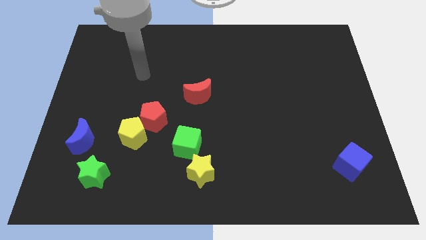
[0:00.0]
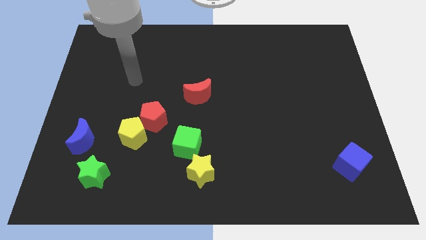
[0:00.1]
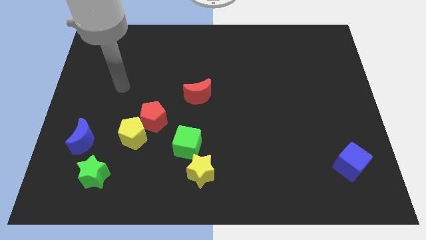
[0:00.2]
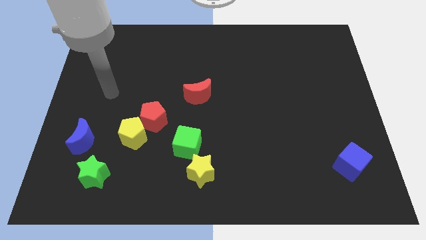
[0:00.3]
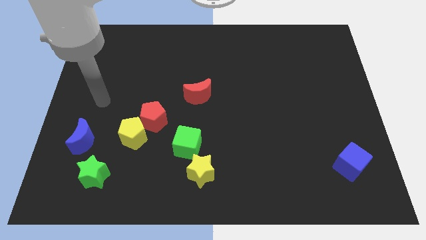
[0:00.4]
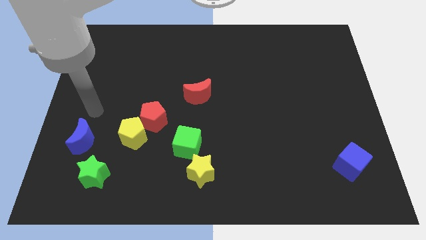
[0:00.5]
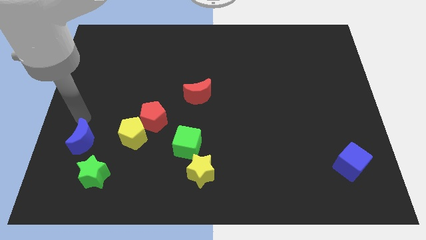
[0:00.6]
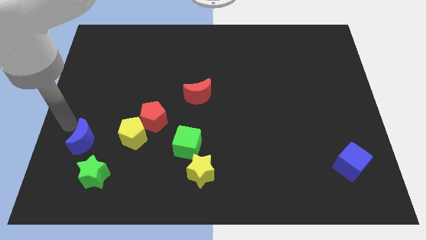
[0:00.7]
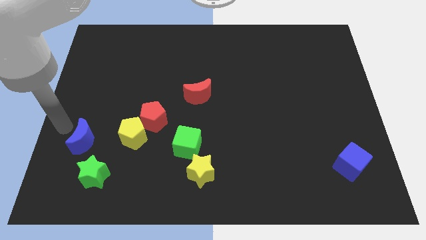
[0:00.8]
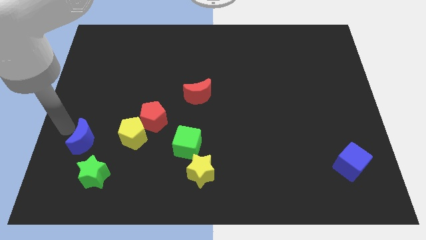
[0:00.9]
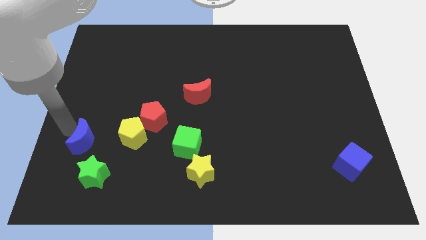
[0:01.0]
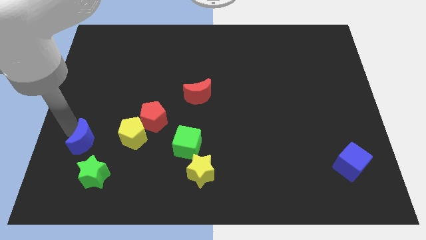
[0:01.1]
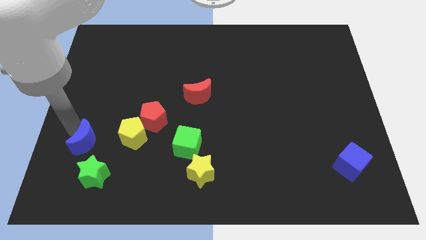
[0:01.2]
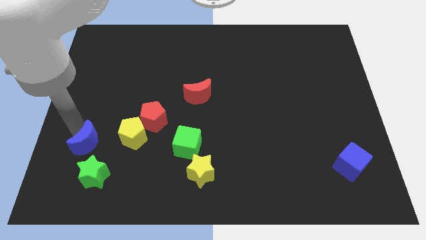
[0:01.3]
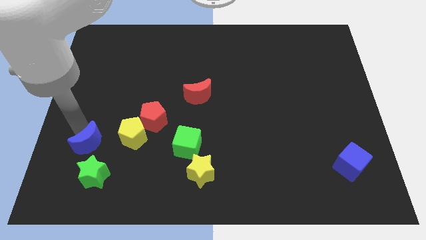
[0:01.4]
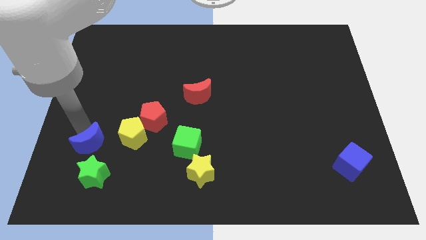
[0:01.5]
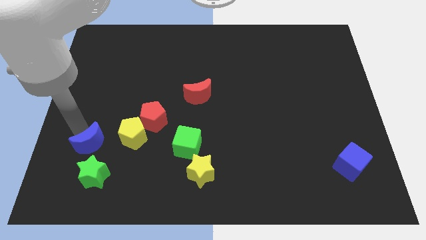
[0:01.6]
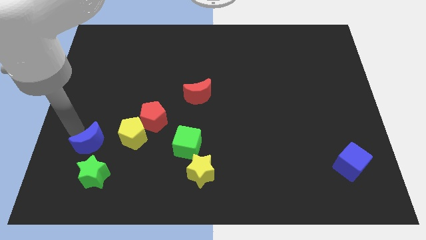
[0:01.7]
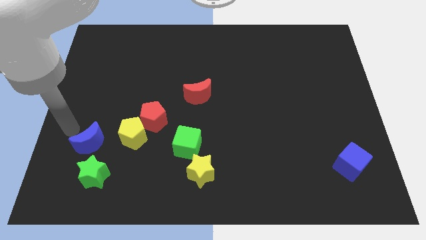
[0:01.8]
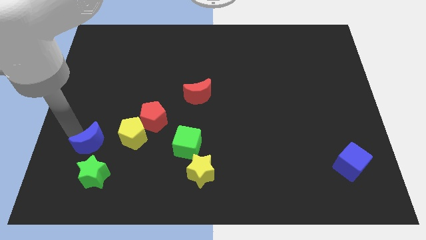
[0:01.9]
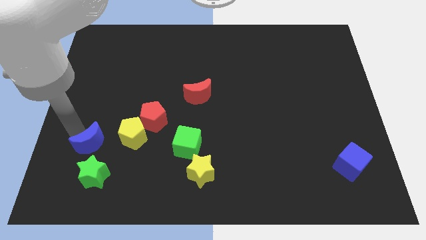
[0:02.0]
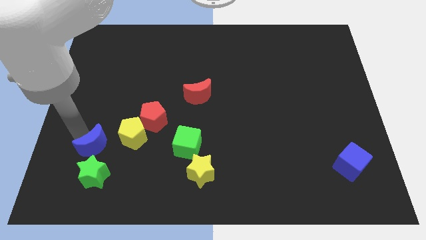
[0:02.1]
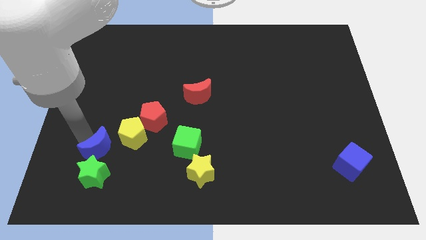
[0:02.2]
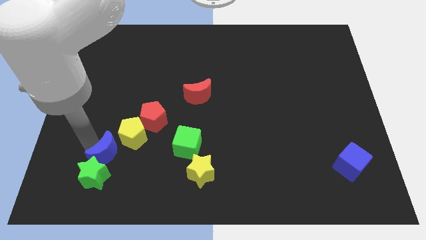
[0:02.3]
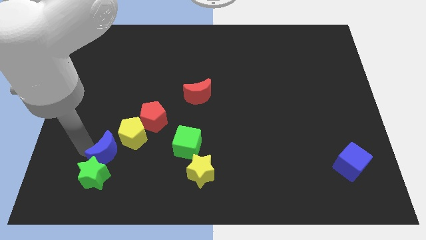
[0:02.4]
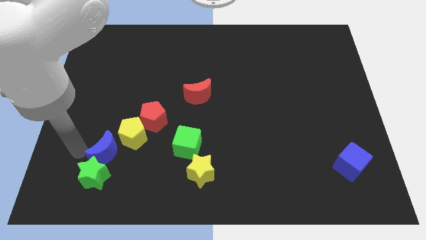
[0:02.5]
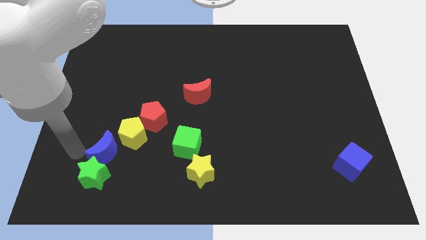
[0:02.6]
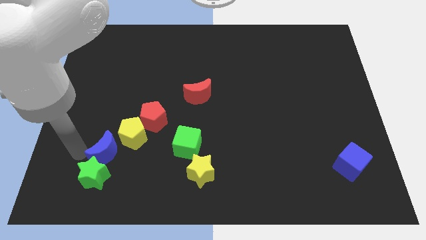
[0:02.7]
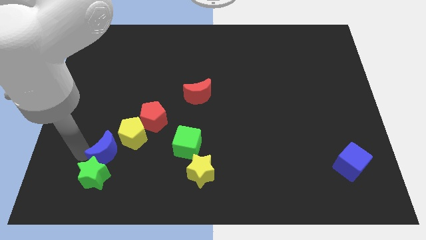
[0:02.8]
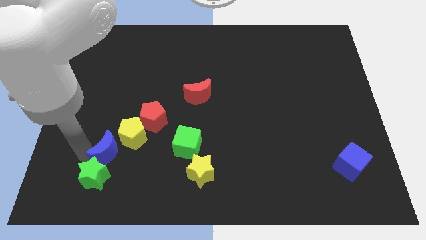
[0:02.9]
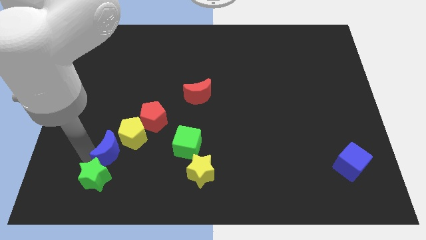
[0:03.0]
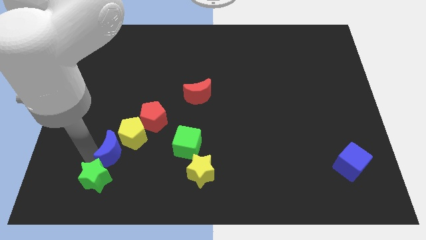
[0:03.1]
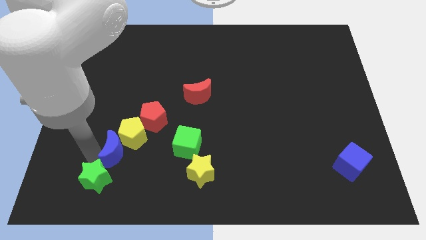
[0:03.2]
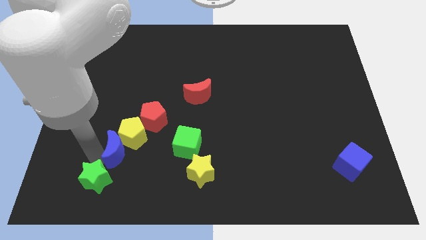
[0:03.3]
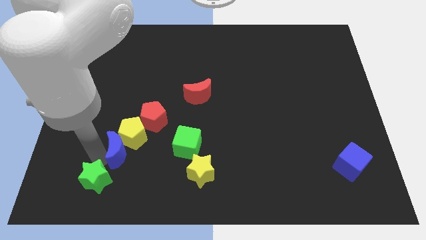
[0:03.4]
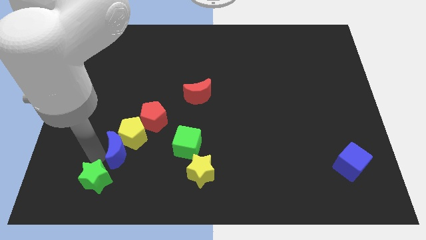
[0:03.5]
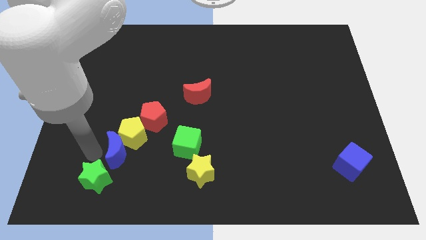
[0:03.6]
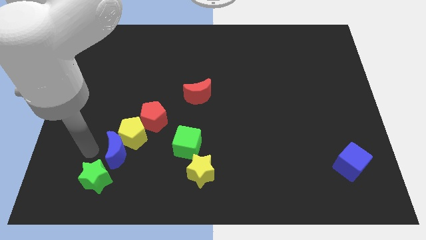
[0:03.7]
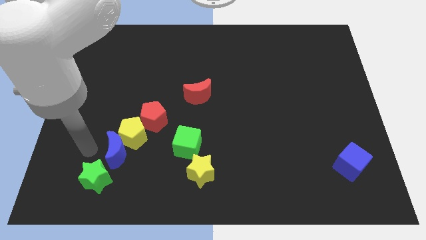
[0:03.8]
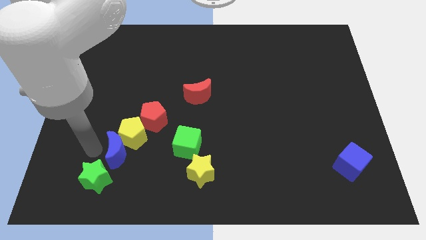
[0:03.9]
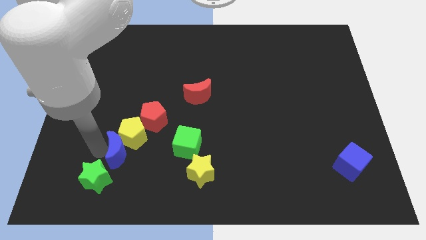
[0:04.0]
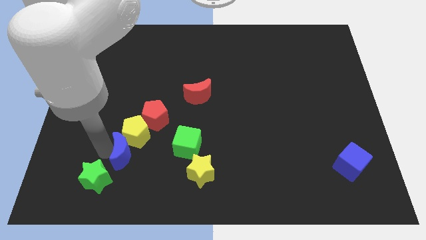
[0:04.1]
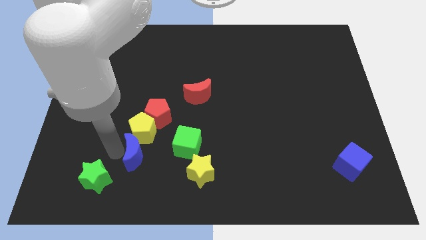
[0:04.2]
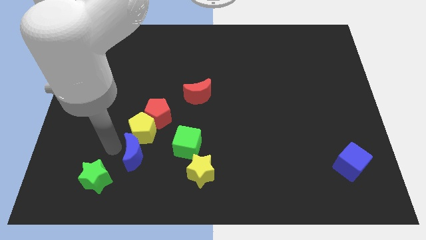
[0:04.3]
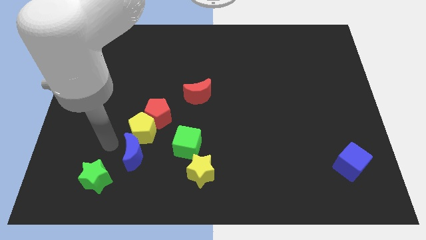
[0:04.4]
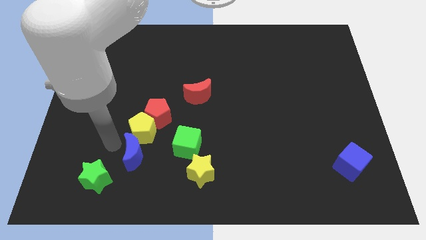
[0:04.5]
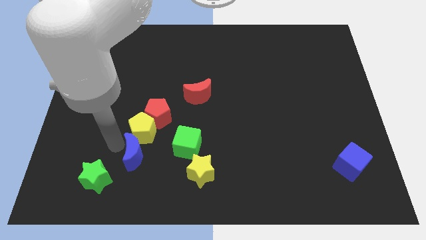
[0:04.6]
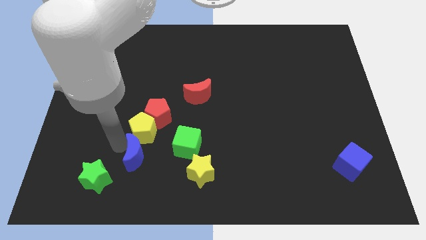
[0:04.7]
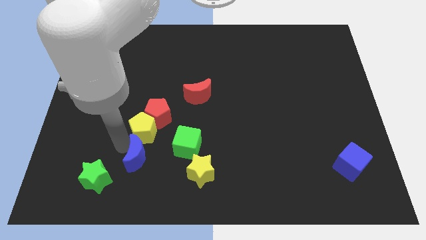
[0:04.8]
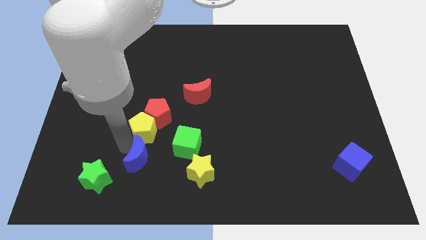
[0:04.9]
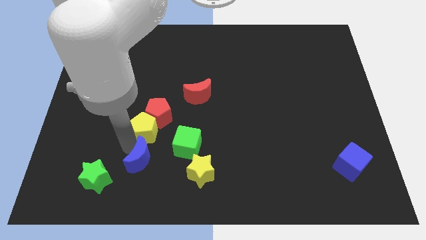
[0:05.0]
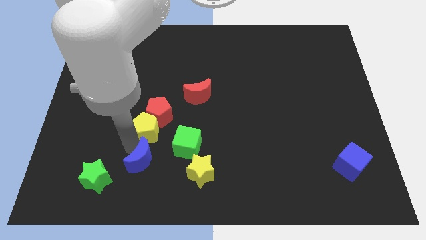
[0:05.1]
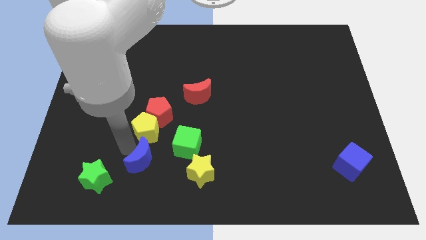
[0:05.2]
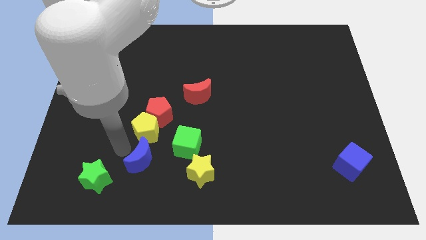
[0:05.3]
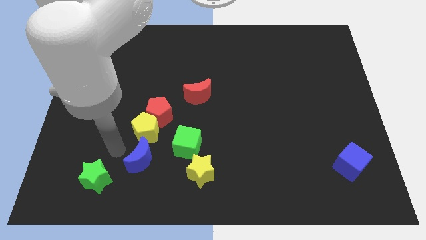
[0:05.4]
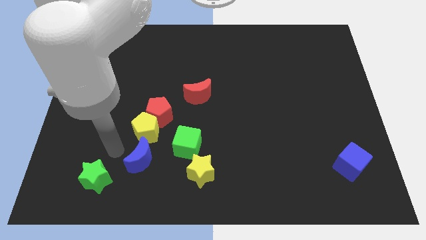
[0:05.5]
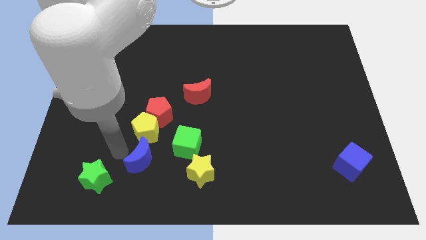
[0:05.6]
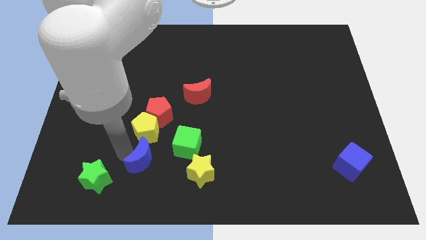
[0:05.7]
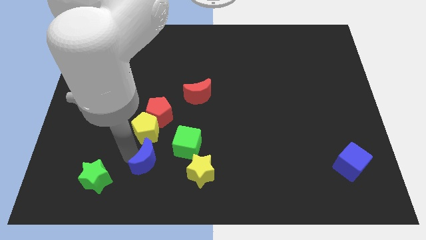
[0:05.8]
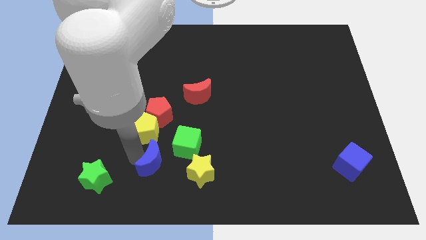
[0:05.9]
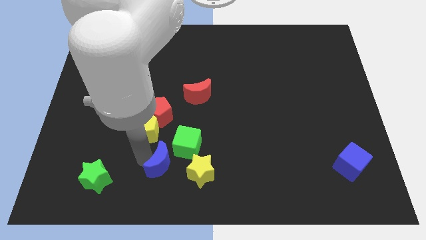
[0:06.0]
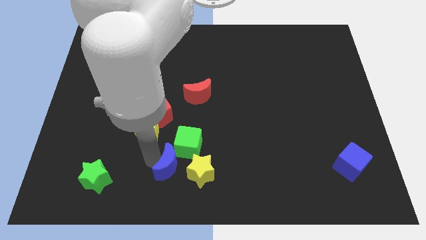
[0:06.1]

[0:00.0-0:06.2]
put the blue moon to the bottom
